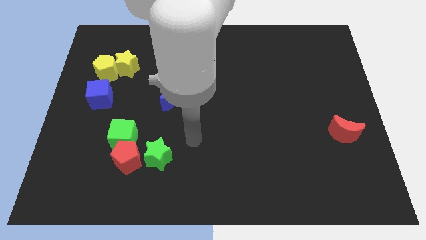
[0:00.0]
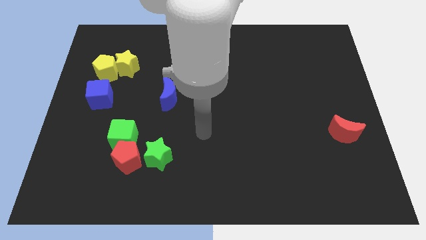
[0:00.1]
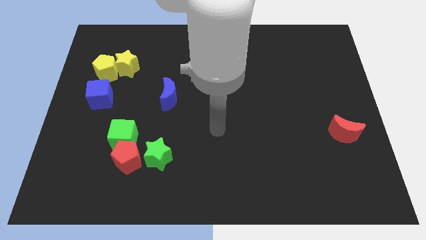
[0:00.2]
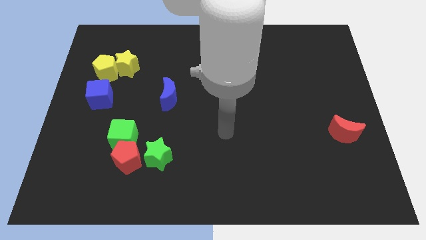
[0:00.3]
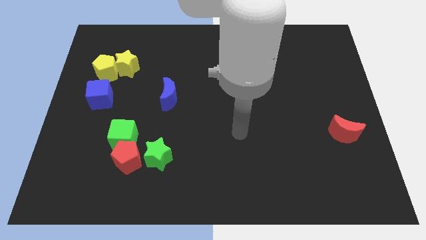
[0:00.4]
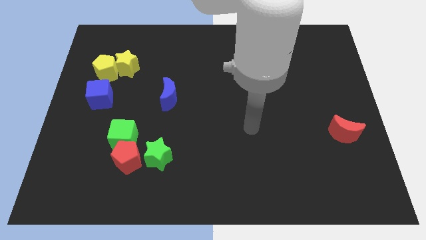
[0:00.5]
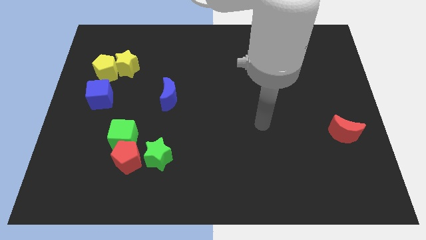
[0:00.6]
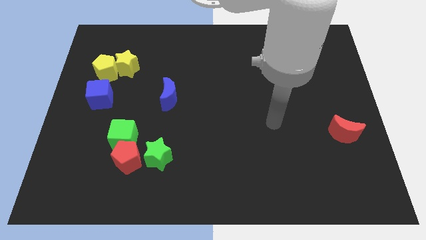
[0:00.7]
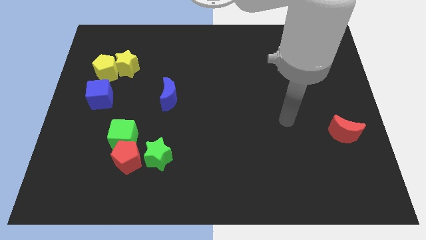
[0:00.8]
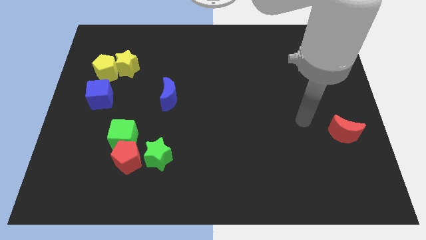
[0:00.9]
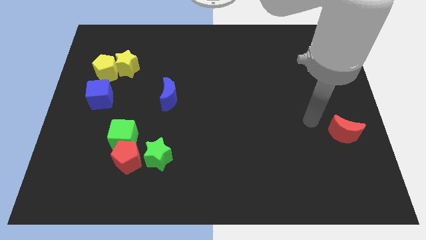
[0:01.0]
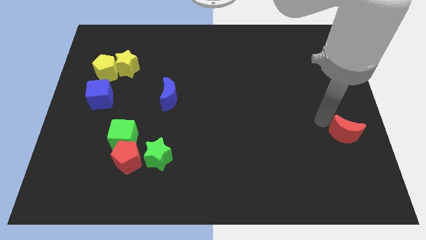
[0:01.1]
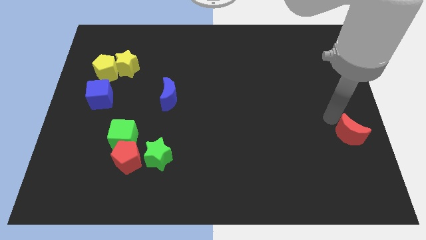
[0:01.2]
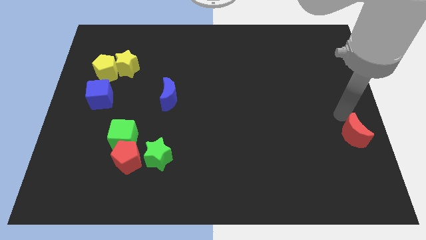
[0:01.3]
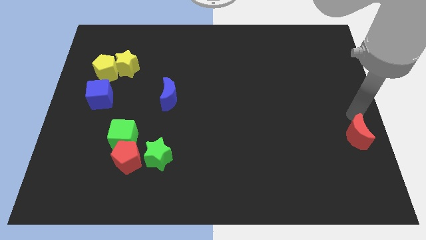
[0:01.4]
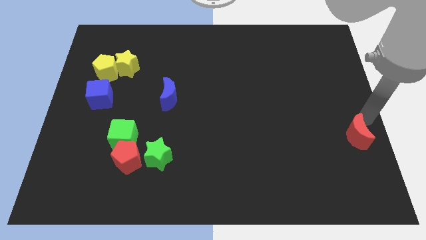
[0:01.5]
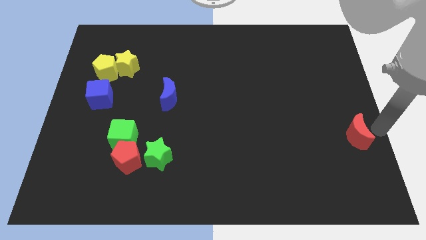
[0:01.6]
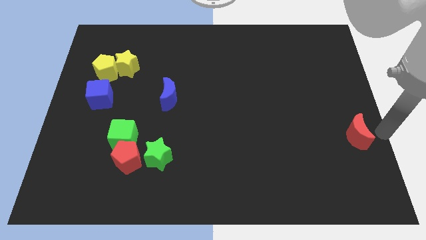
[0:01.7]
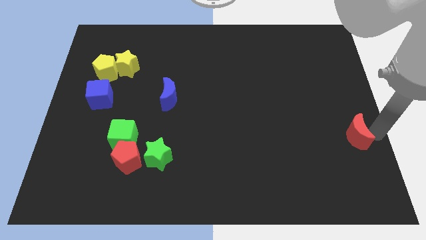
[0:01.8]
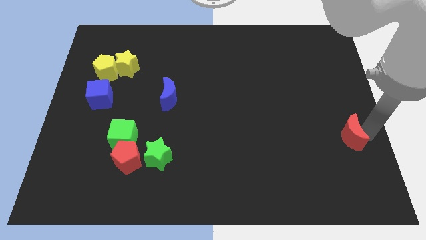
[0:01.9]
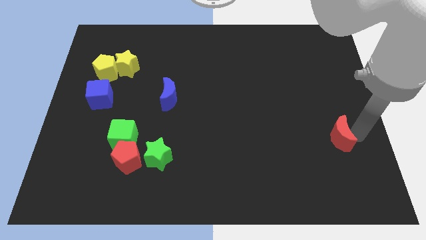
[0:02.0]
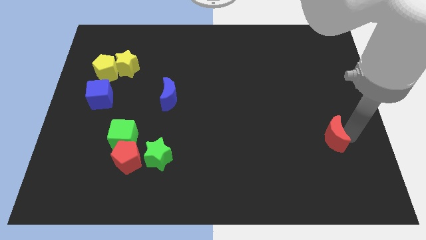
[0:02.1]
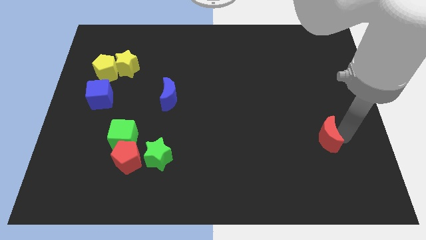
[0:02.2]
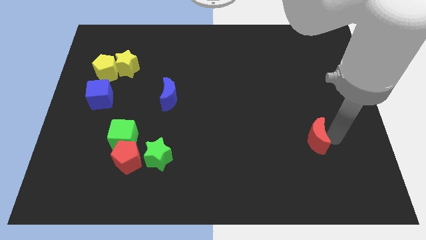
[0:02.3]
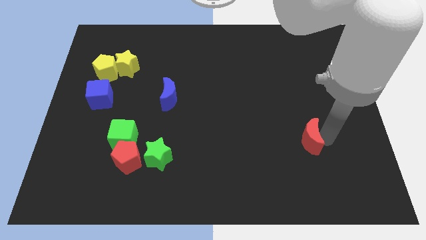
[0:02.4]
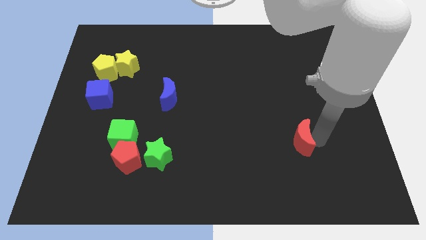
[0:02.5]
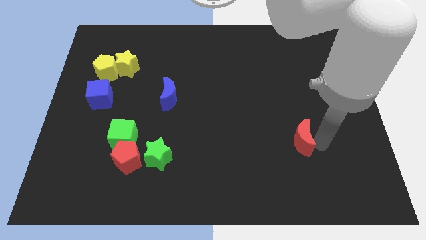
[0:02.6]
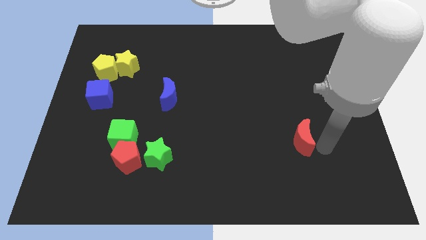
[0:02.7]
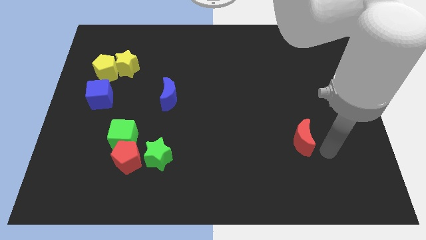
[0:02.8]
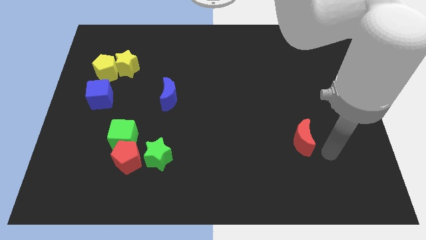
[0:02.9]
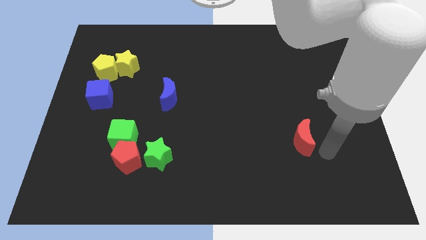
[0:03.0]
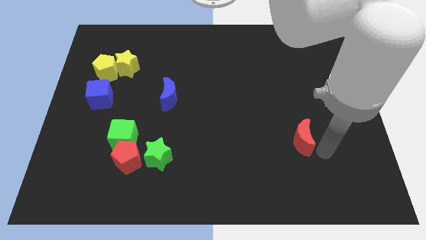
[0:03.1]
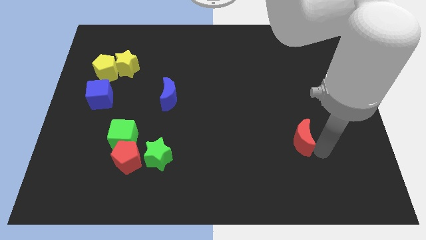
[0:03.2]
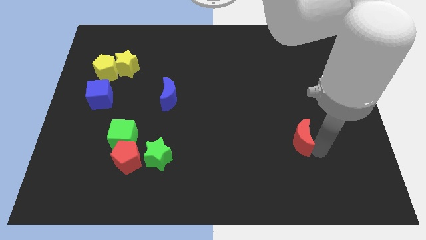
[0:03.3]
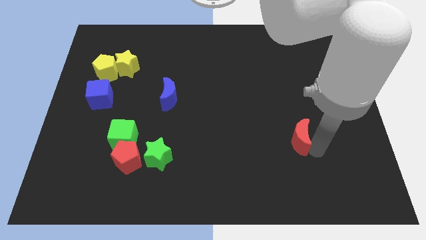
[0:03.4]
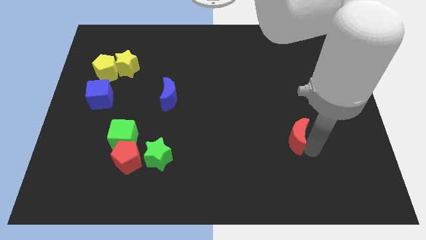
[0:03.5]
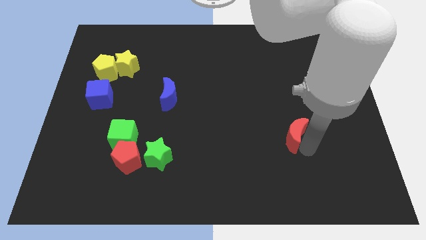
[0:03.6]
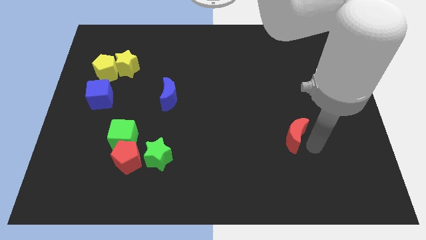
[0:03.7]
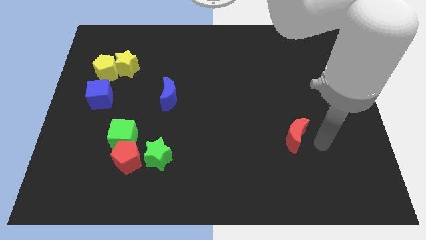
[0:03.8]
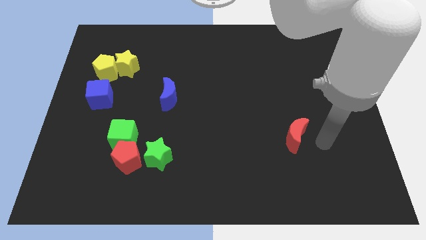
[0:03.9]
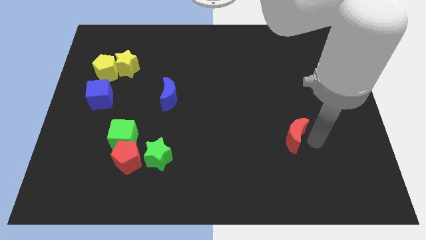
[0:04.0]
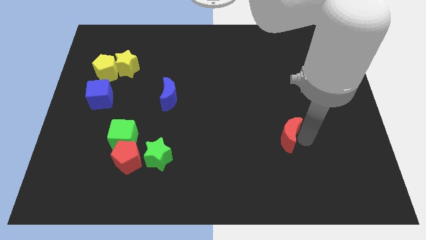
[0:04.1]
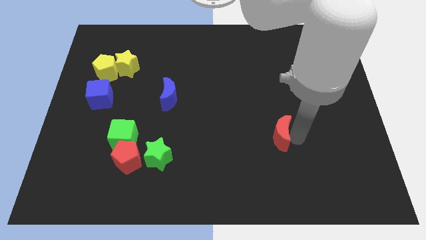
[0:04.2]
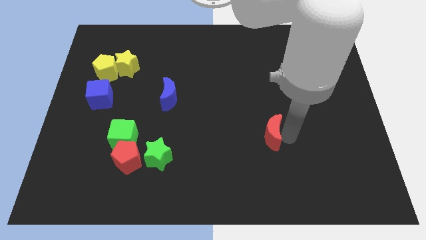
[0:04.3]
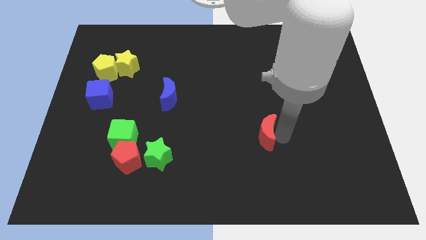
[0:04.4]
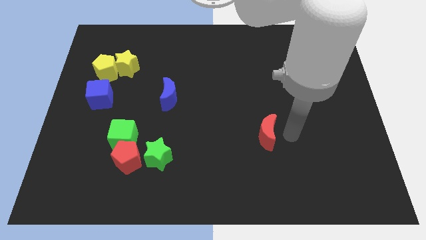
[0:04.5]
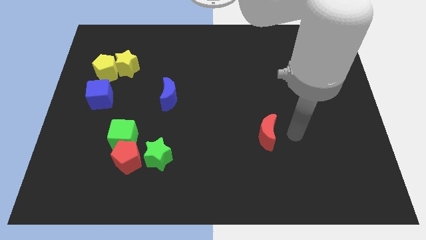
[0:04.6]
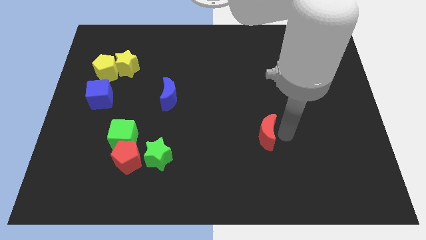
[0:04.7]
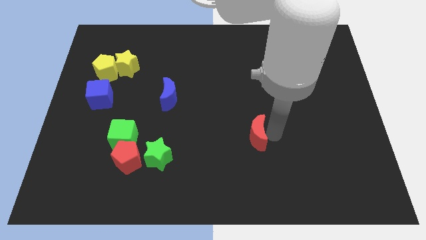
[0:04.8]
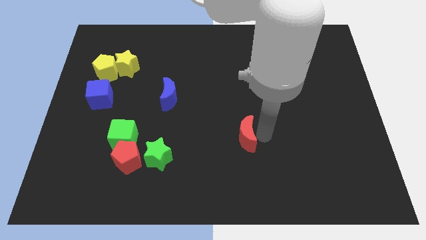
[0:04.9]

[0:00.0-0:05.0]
push the red moon to the left

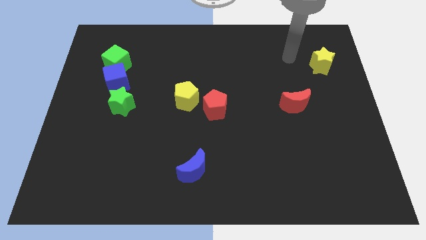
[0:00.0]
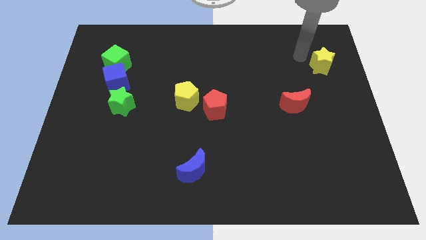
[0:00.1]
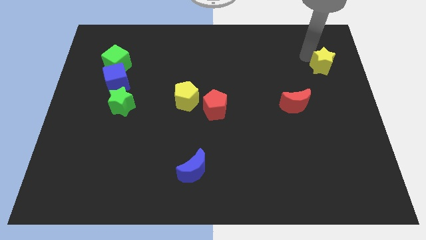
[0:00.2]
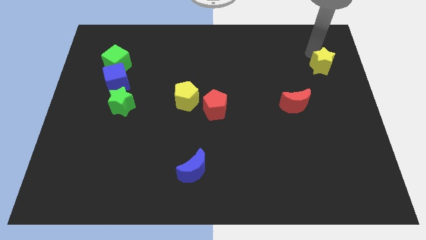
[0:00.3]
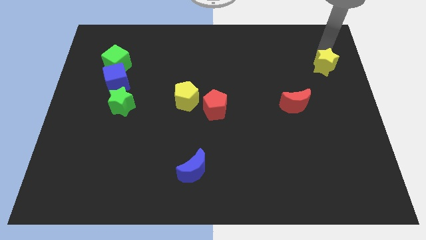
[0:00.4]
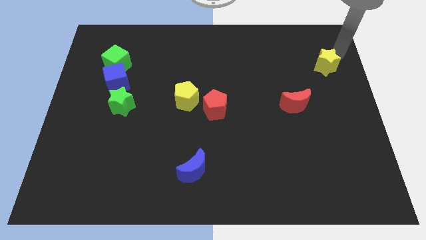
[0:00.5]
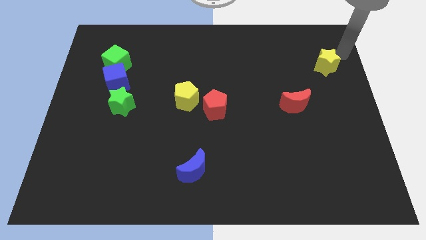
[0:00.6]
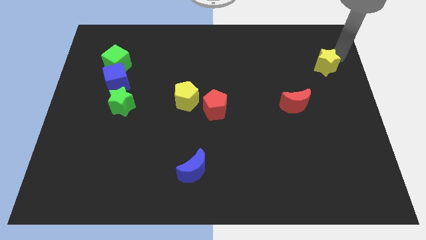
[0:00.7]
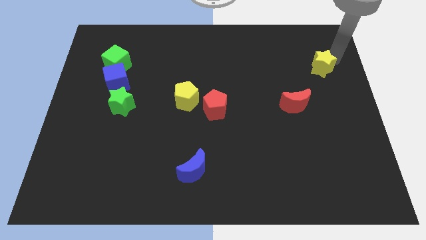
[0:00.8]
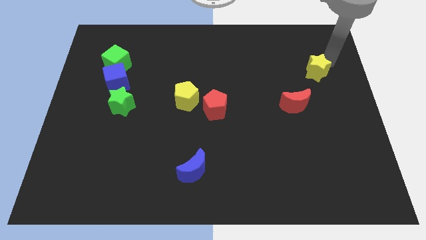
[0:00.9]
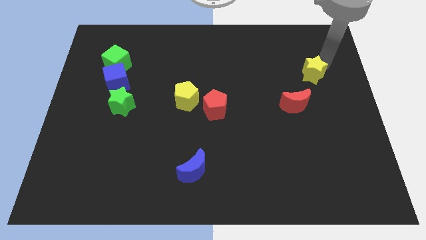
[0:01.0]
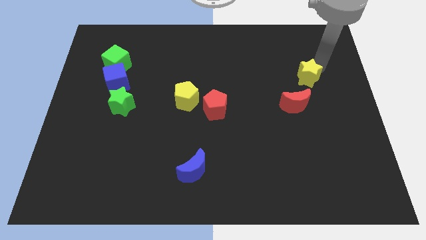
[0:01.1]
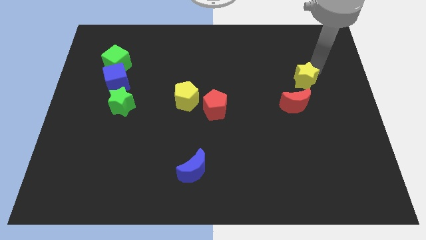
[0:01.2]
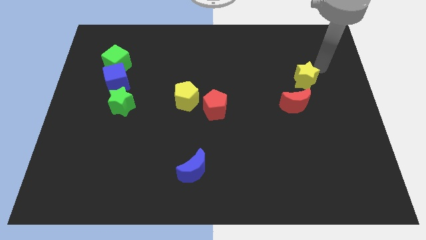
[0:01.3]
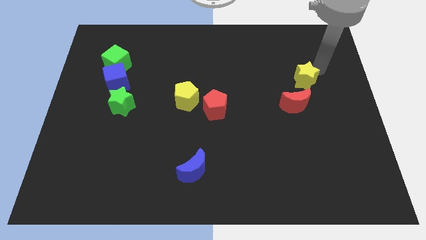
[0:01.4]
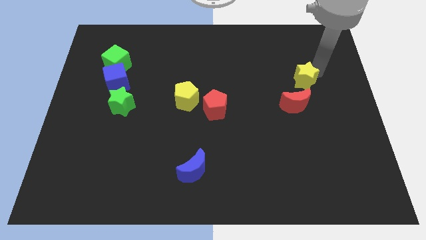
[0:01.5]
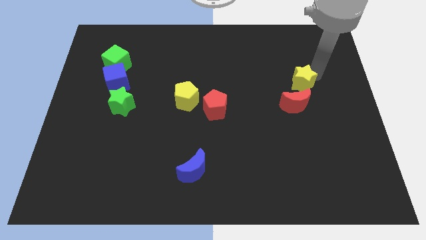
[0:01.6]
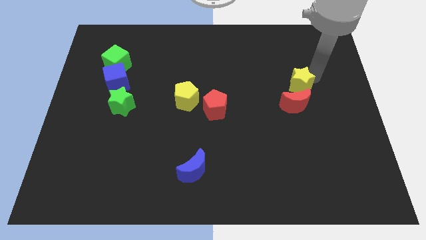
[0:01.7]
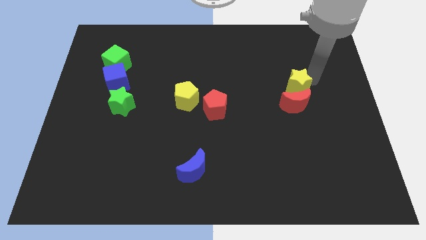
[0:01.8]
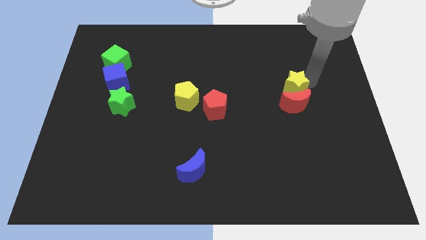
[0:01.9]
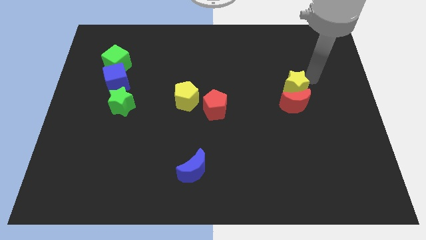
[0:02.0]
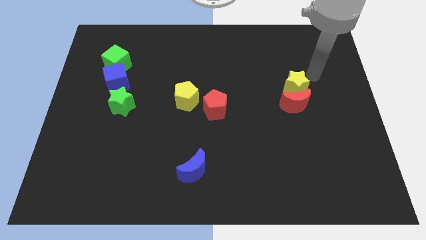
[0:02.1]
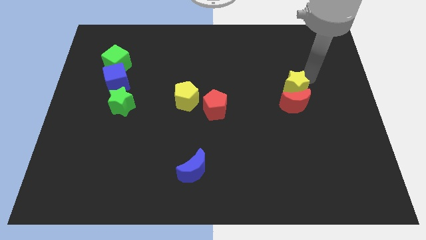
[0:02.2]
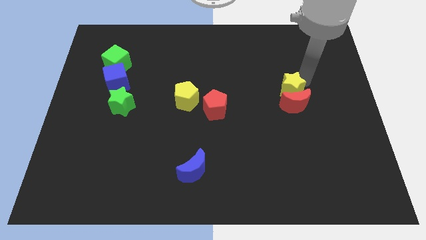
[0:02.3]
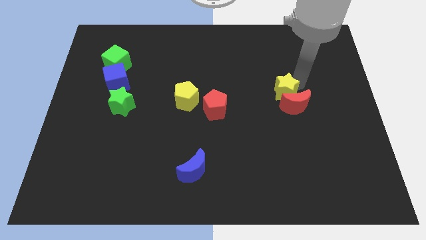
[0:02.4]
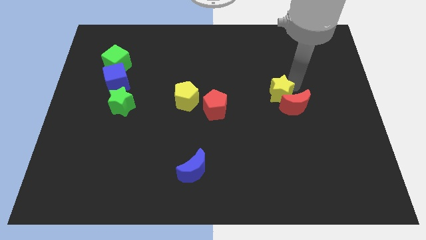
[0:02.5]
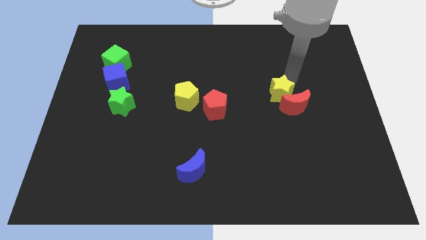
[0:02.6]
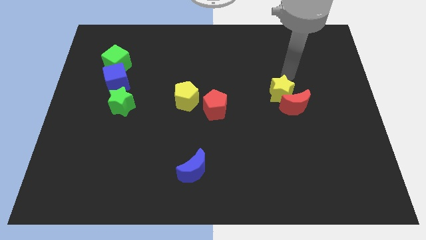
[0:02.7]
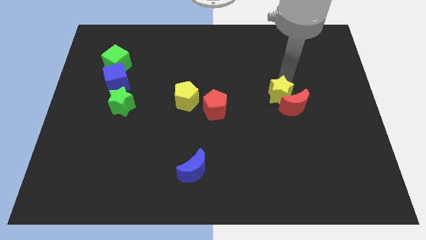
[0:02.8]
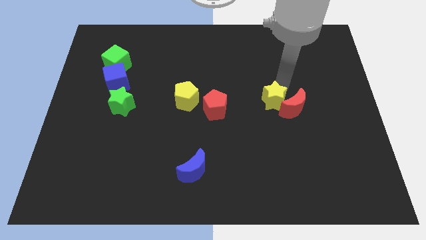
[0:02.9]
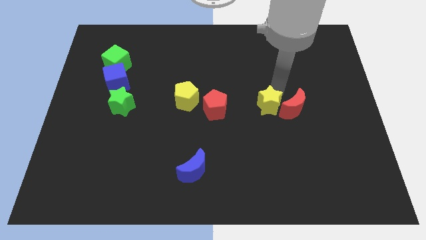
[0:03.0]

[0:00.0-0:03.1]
move the yellow star downwards and then left
